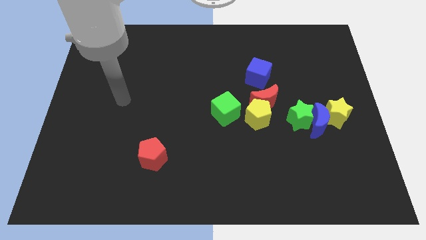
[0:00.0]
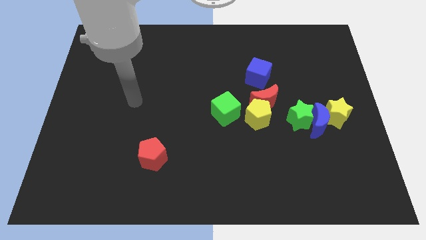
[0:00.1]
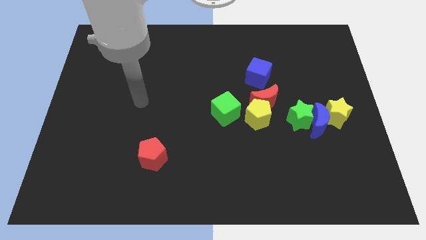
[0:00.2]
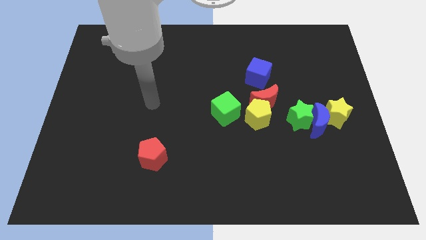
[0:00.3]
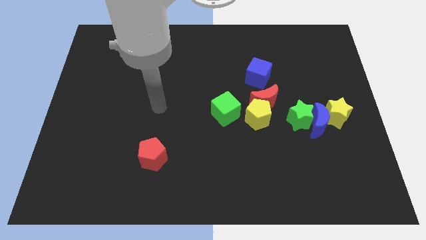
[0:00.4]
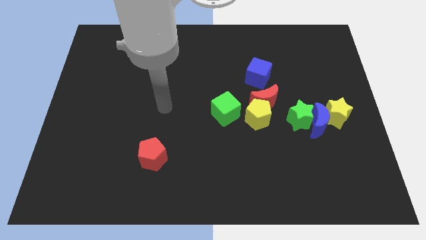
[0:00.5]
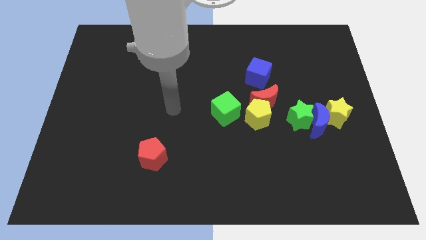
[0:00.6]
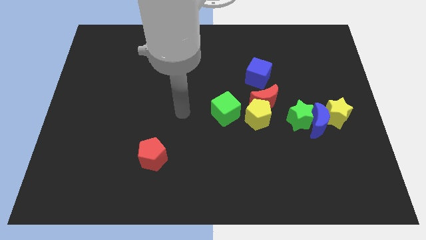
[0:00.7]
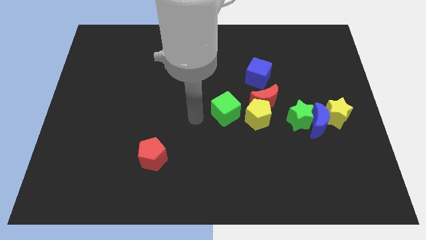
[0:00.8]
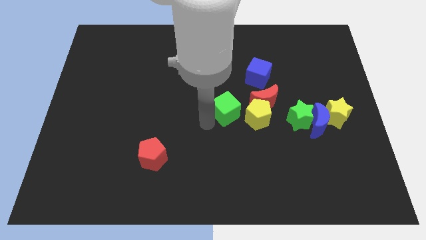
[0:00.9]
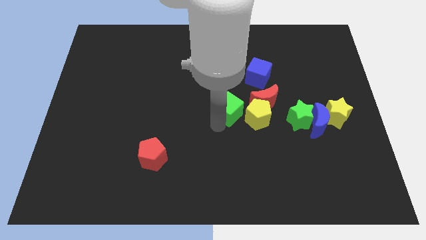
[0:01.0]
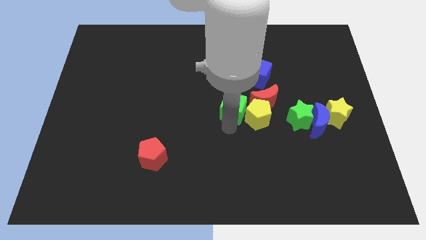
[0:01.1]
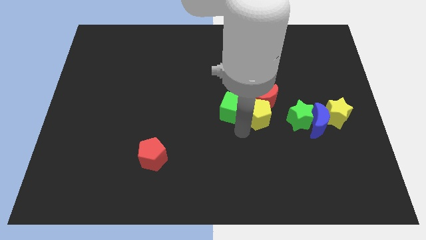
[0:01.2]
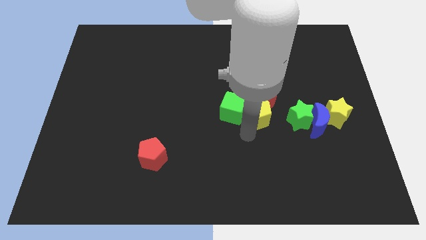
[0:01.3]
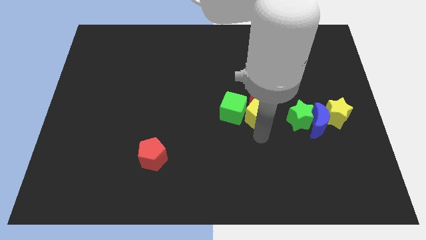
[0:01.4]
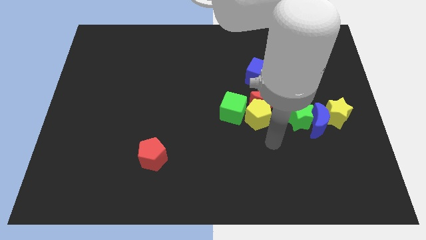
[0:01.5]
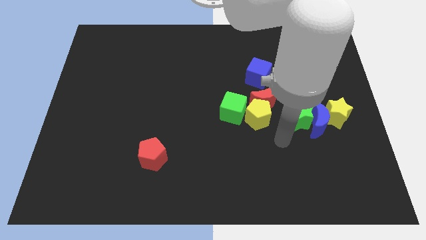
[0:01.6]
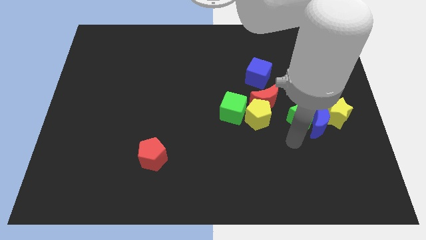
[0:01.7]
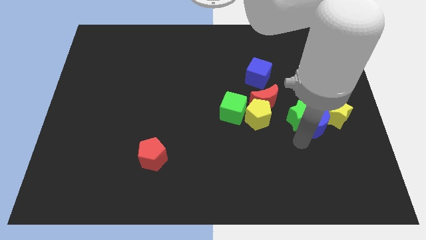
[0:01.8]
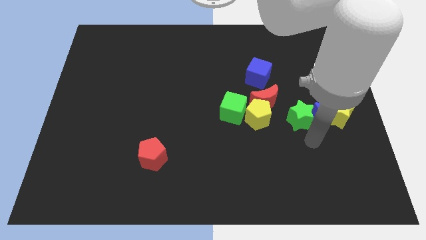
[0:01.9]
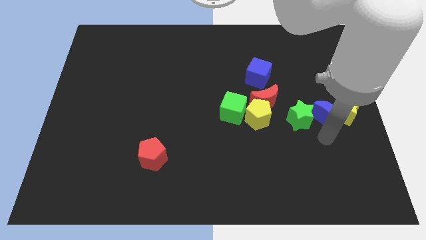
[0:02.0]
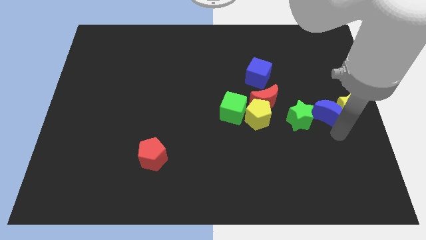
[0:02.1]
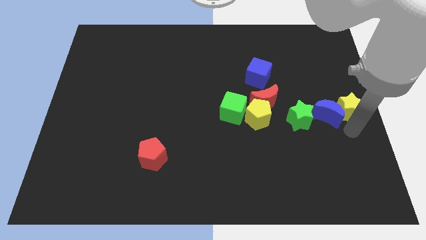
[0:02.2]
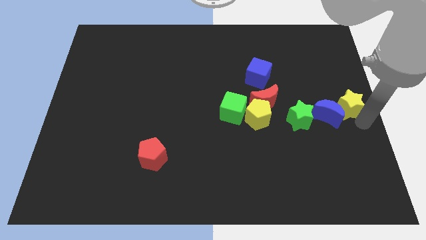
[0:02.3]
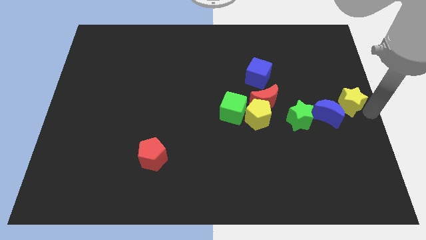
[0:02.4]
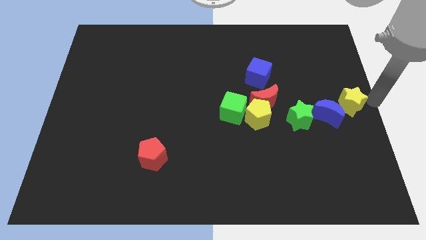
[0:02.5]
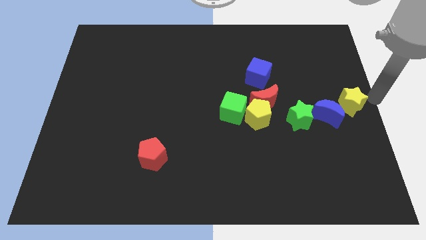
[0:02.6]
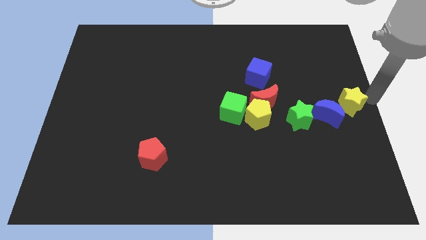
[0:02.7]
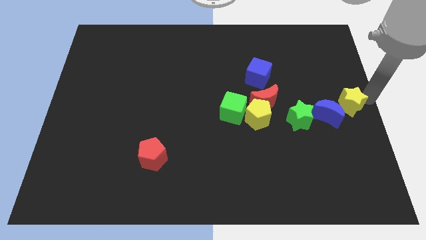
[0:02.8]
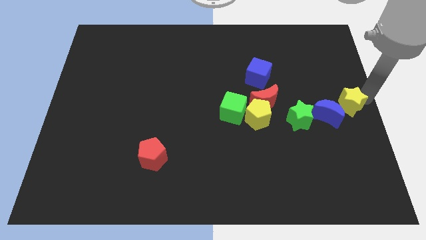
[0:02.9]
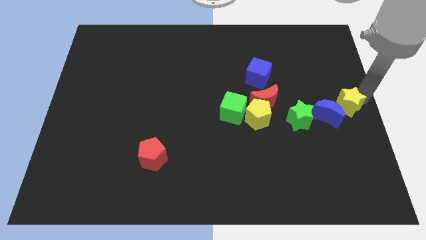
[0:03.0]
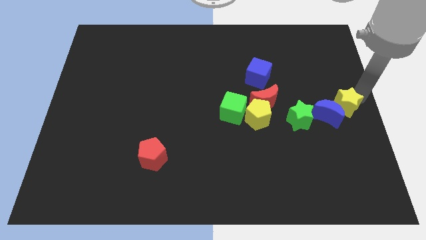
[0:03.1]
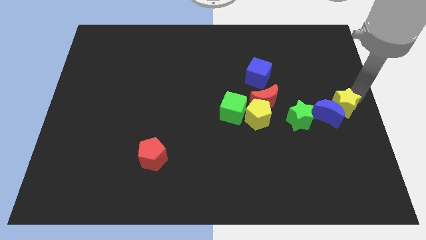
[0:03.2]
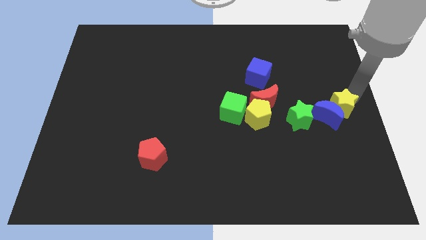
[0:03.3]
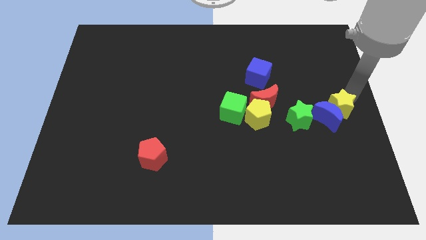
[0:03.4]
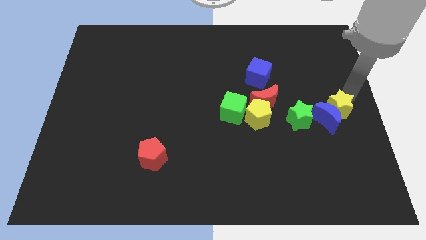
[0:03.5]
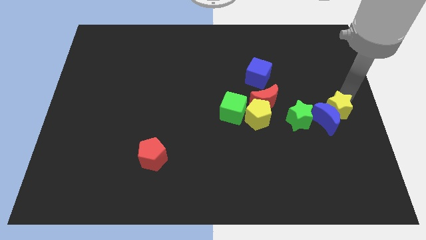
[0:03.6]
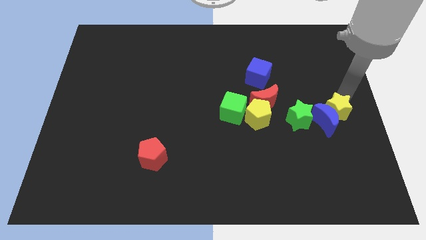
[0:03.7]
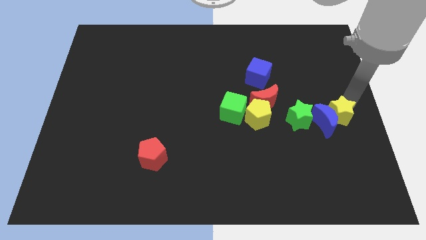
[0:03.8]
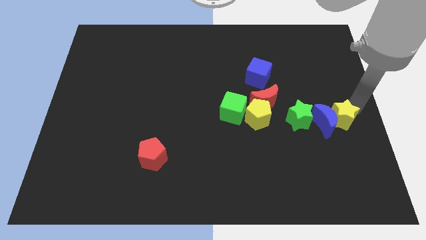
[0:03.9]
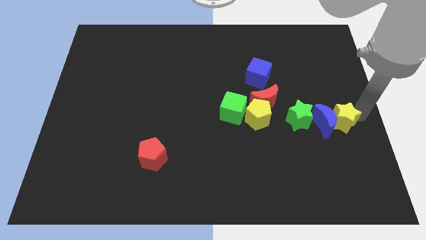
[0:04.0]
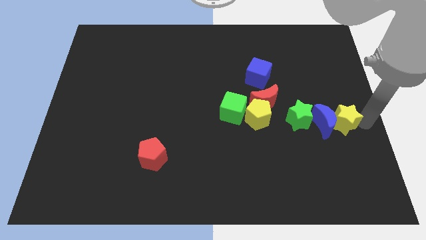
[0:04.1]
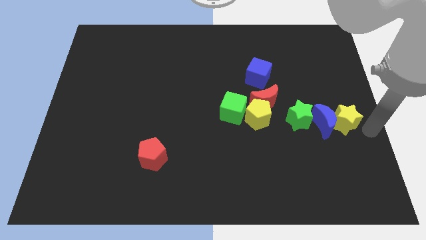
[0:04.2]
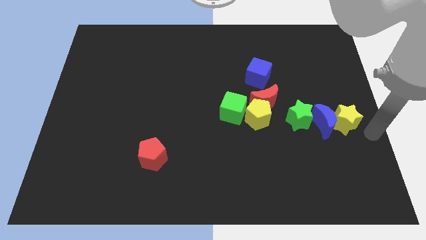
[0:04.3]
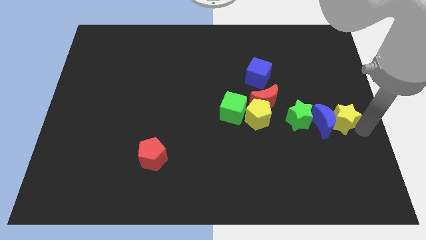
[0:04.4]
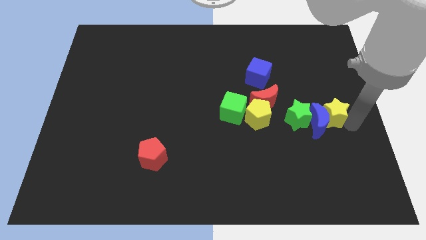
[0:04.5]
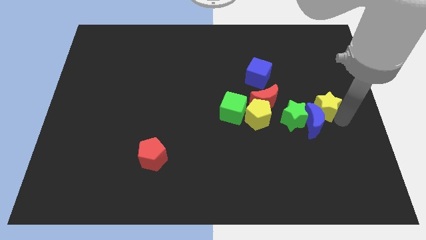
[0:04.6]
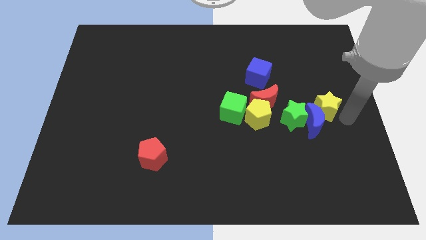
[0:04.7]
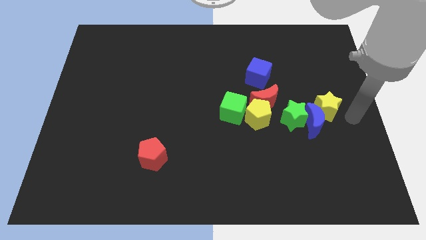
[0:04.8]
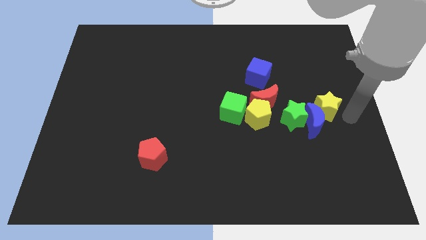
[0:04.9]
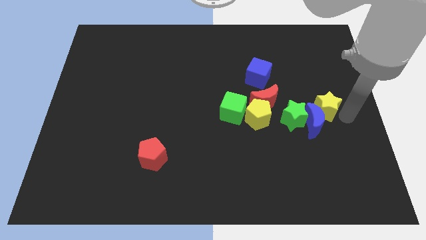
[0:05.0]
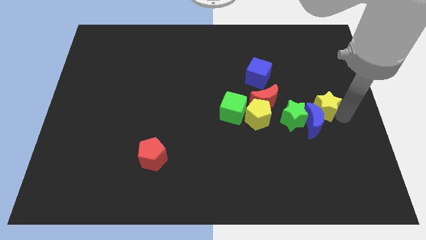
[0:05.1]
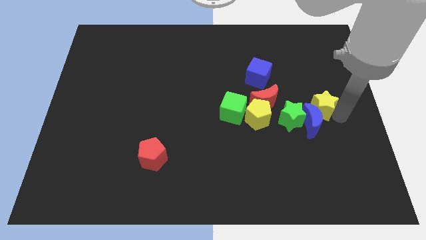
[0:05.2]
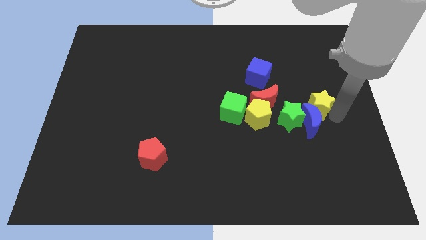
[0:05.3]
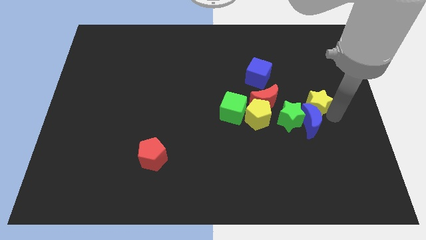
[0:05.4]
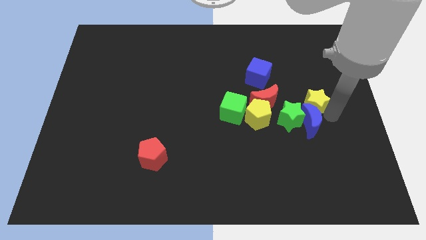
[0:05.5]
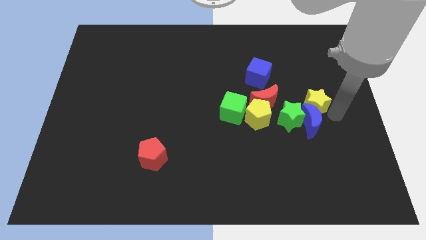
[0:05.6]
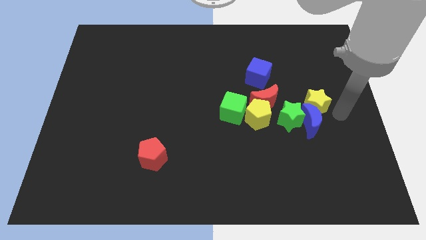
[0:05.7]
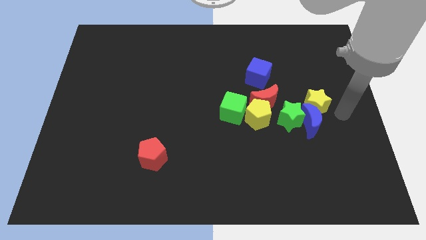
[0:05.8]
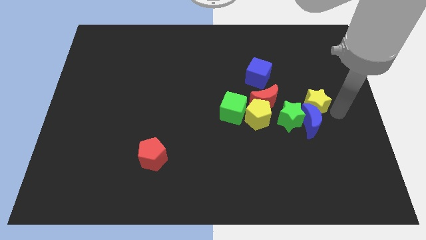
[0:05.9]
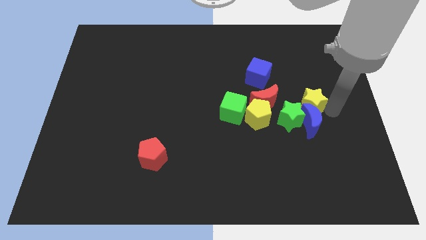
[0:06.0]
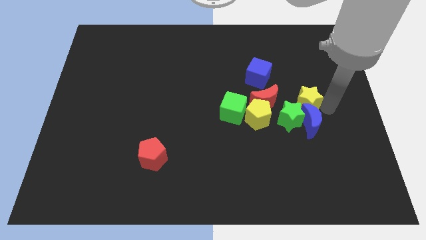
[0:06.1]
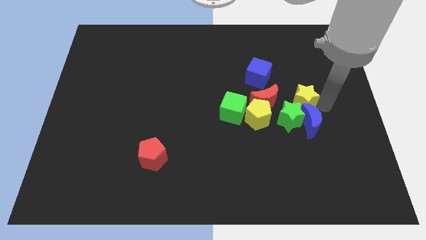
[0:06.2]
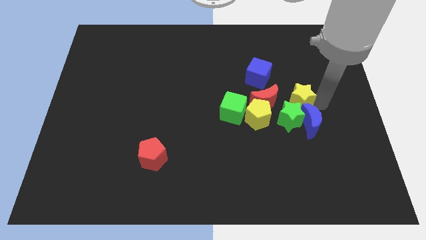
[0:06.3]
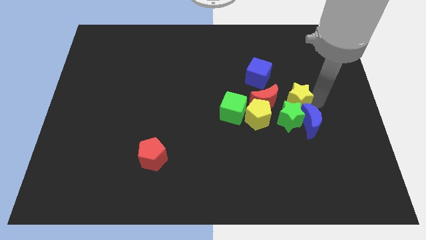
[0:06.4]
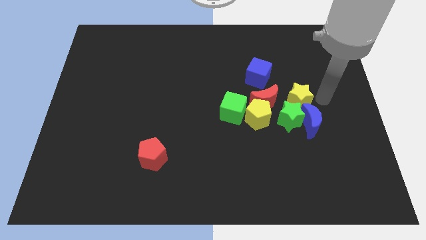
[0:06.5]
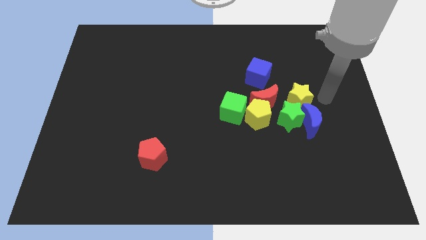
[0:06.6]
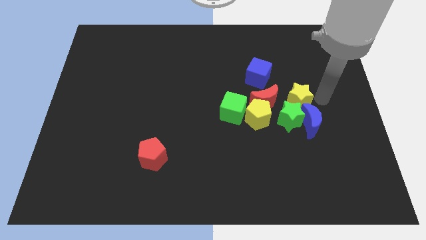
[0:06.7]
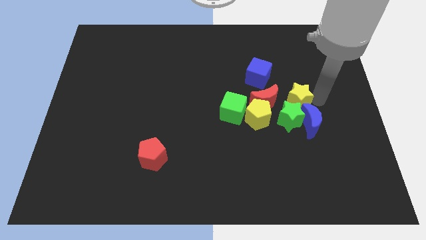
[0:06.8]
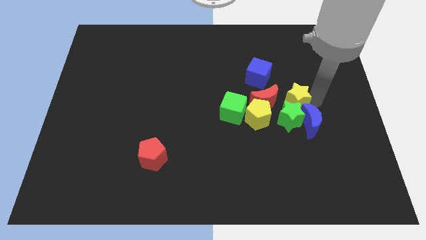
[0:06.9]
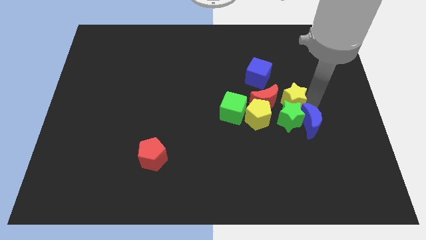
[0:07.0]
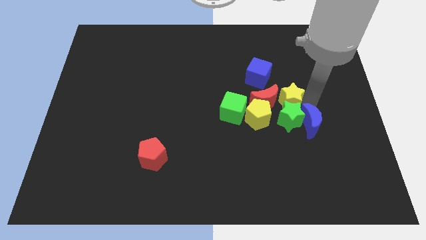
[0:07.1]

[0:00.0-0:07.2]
slide the yellow star to the red moon
